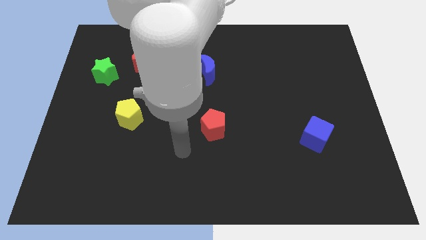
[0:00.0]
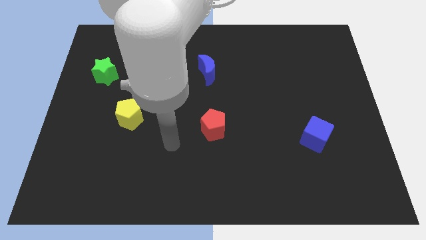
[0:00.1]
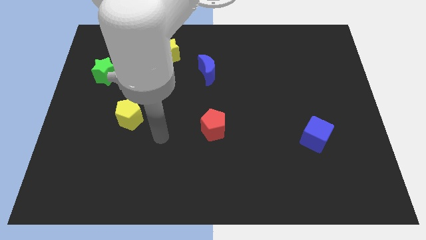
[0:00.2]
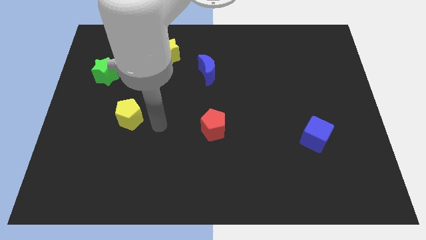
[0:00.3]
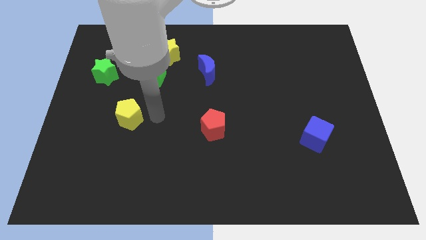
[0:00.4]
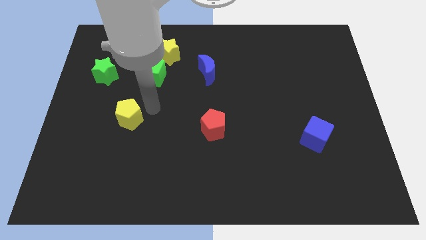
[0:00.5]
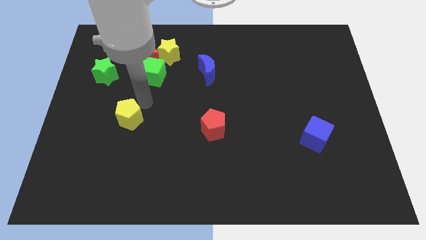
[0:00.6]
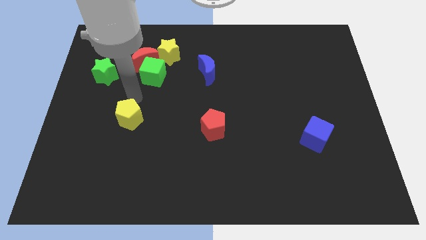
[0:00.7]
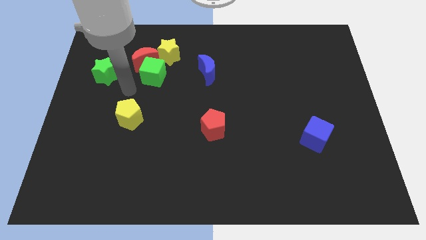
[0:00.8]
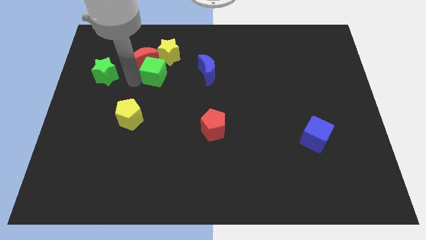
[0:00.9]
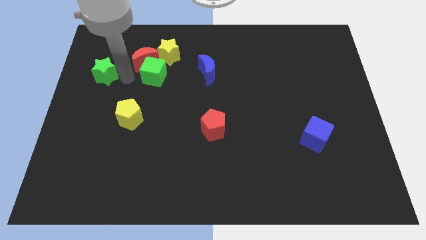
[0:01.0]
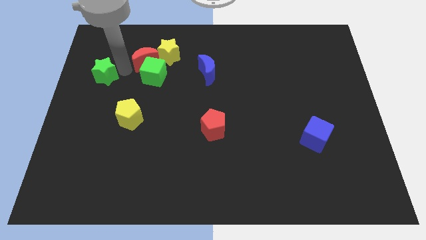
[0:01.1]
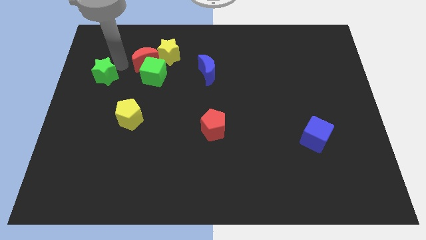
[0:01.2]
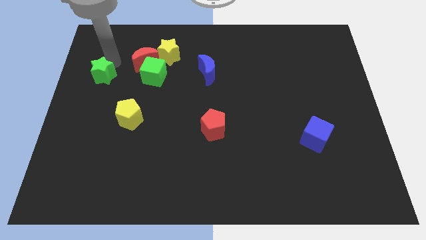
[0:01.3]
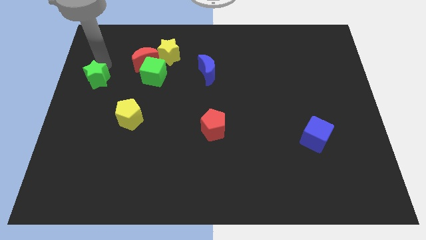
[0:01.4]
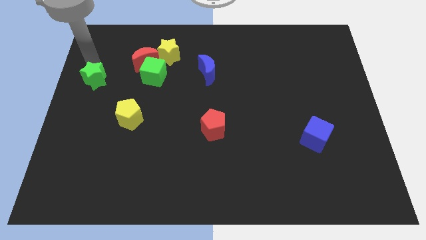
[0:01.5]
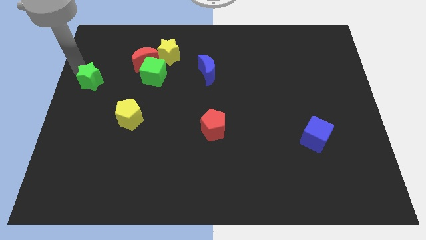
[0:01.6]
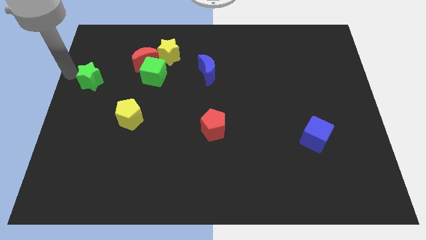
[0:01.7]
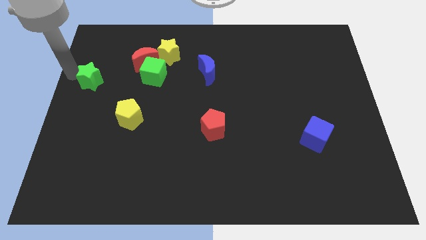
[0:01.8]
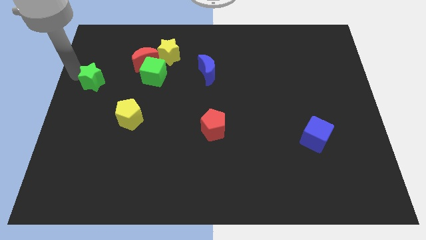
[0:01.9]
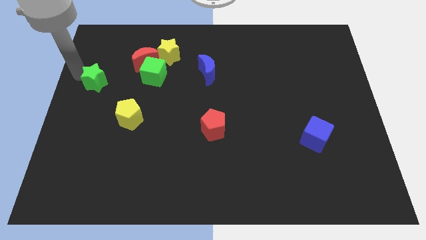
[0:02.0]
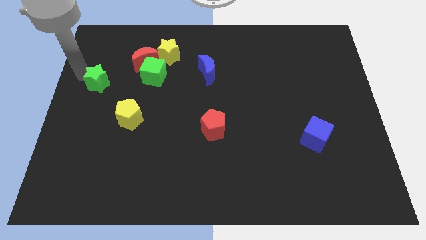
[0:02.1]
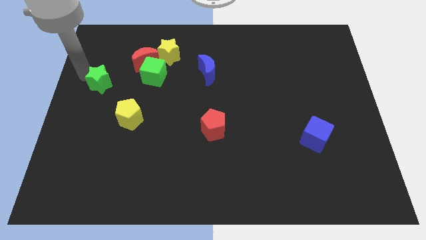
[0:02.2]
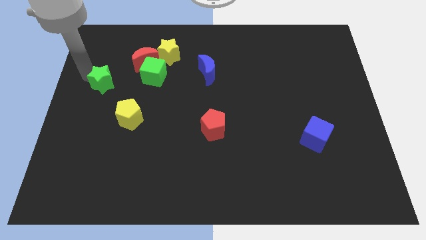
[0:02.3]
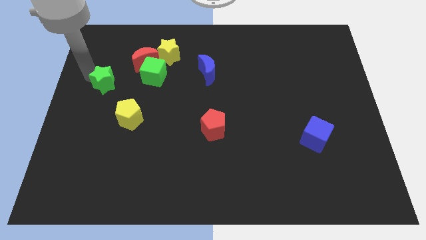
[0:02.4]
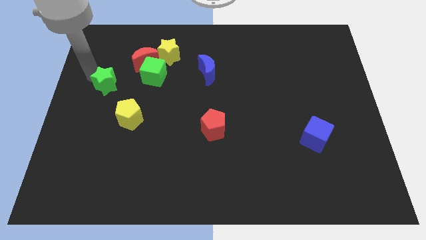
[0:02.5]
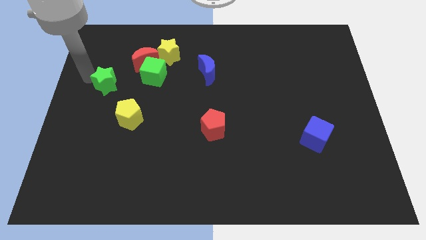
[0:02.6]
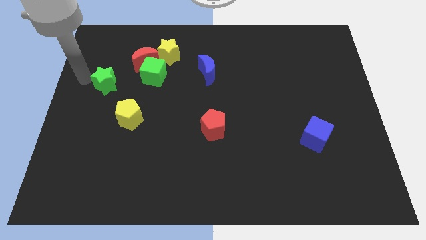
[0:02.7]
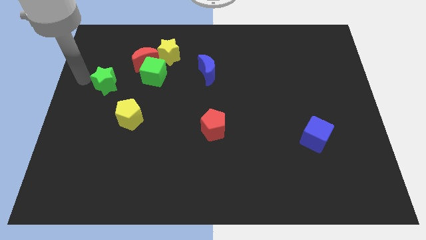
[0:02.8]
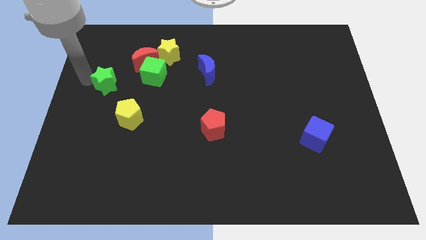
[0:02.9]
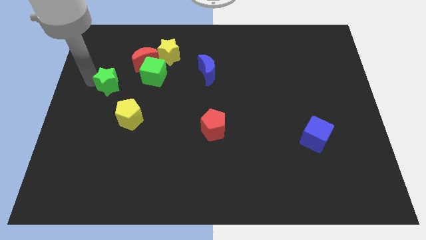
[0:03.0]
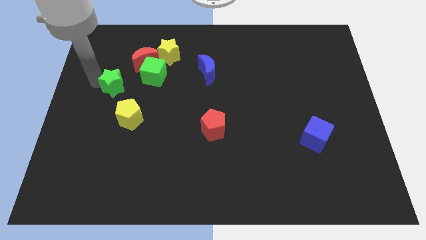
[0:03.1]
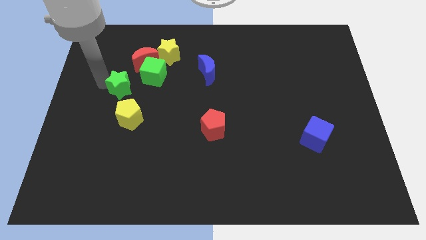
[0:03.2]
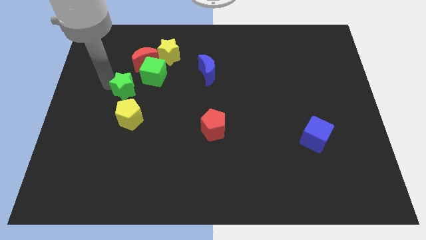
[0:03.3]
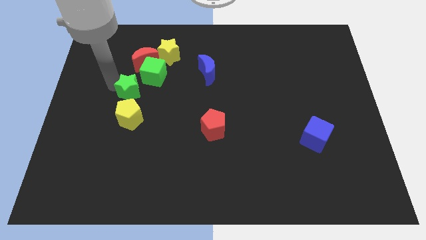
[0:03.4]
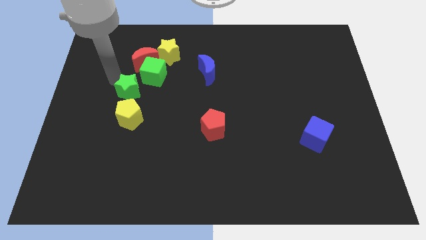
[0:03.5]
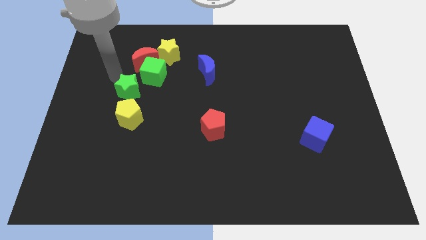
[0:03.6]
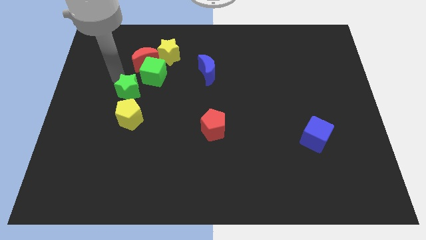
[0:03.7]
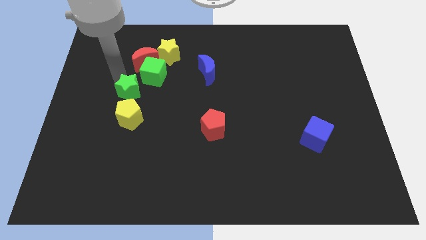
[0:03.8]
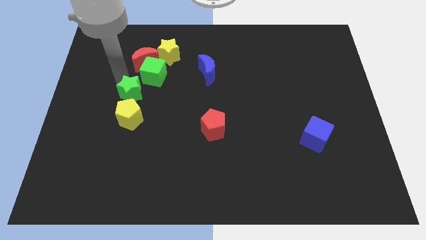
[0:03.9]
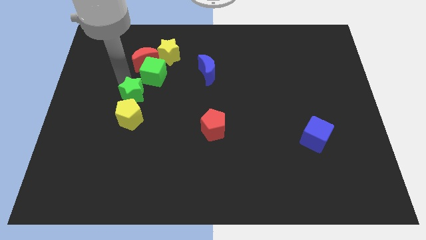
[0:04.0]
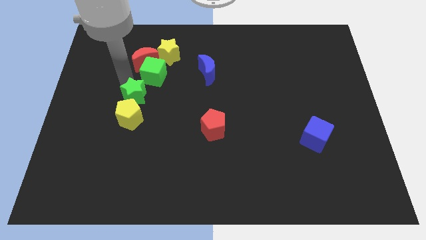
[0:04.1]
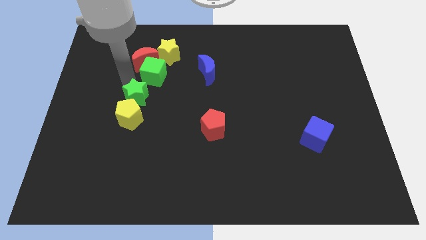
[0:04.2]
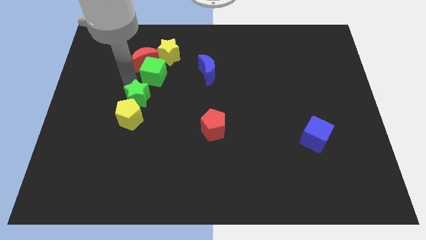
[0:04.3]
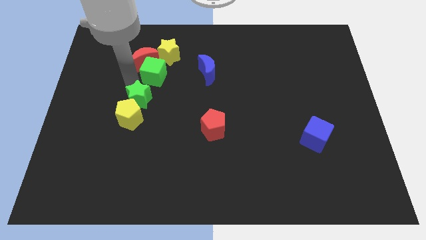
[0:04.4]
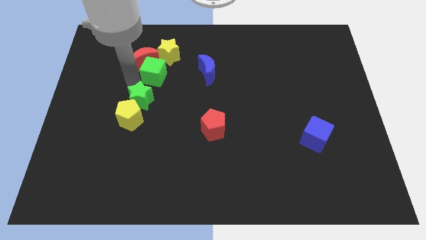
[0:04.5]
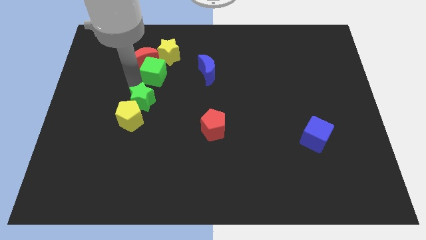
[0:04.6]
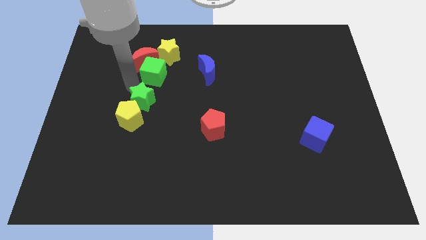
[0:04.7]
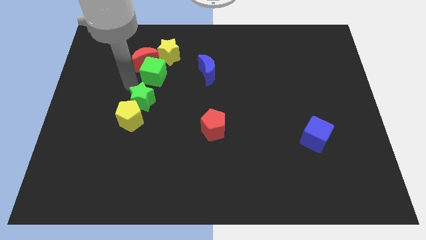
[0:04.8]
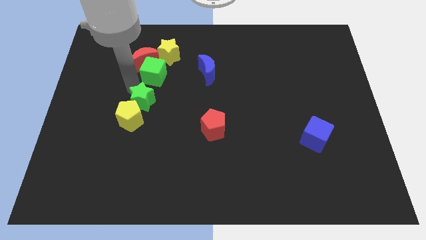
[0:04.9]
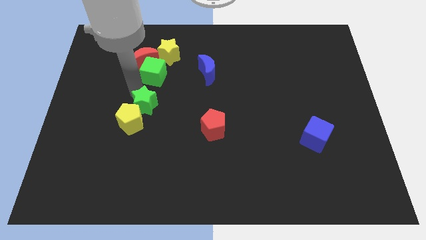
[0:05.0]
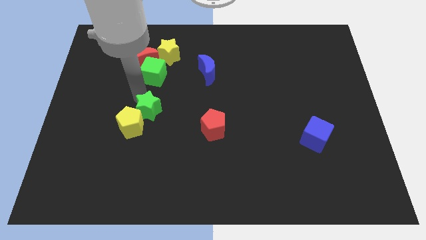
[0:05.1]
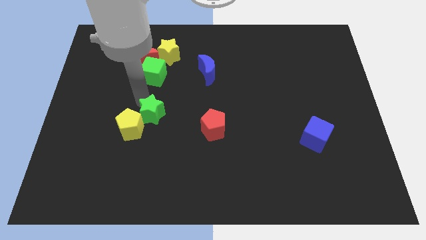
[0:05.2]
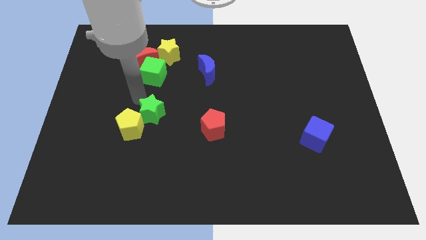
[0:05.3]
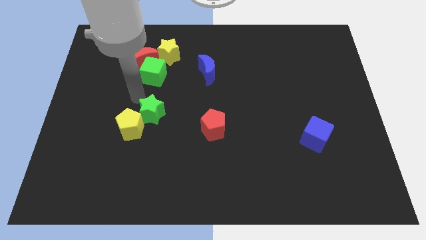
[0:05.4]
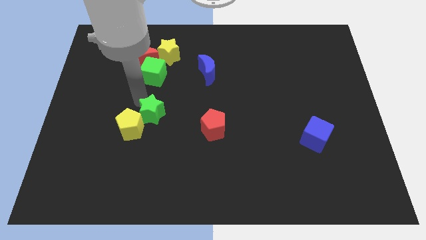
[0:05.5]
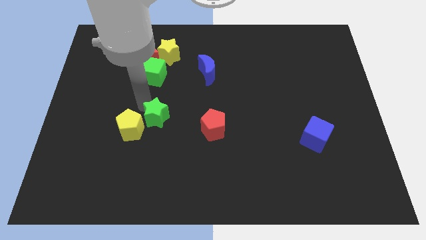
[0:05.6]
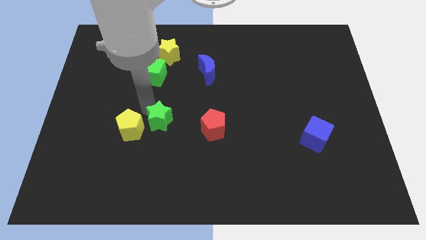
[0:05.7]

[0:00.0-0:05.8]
push the green star diagonally downwards and right

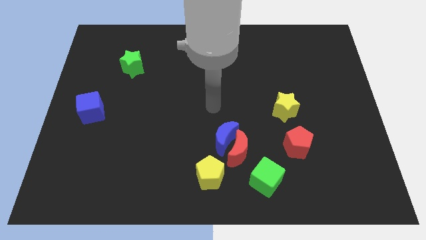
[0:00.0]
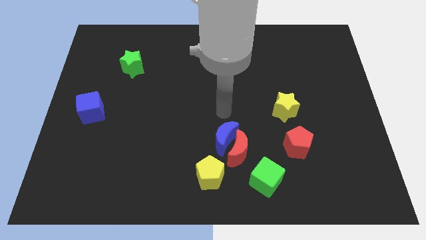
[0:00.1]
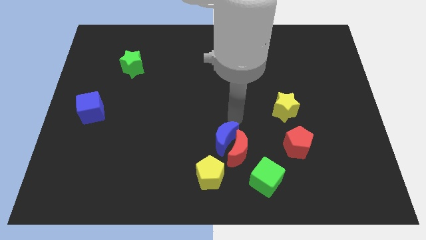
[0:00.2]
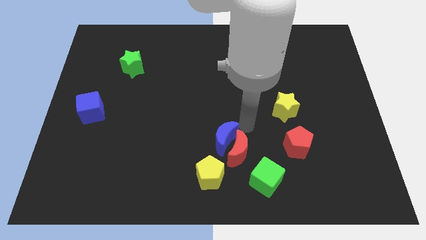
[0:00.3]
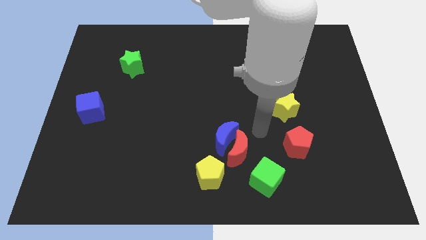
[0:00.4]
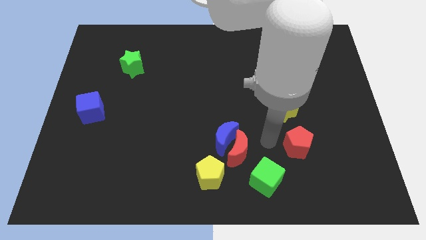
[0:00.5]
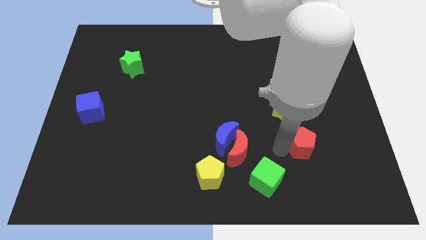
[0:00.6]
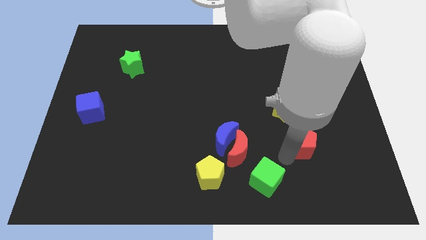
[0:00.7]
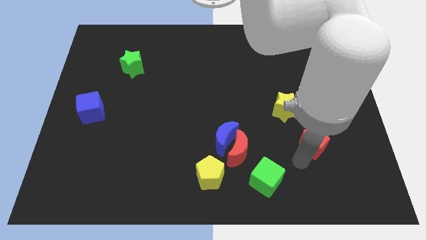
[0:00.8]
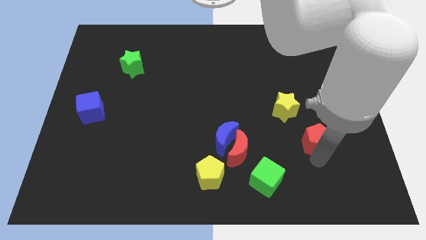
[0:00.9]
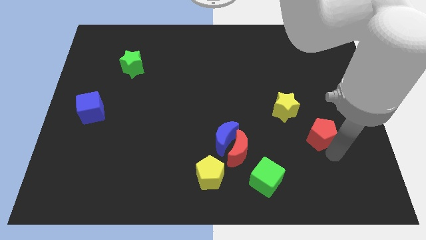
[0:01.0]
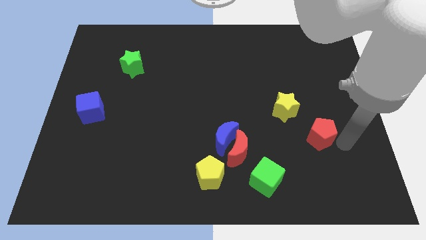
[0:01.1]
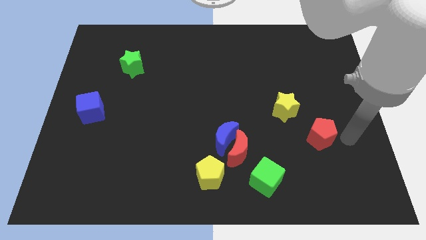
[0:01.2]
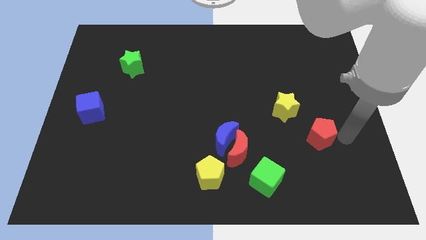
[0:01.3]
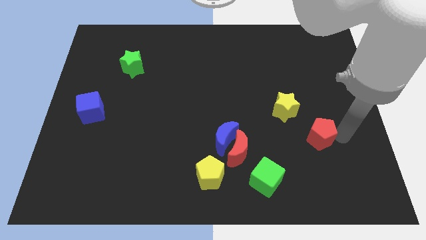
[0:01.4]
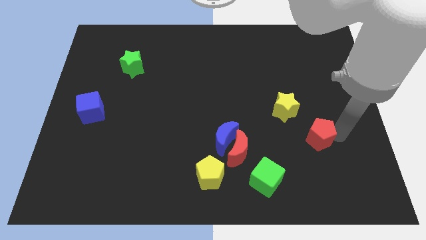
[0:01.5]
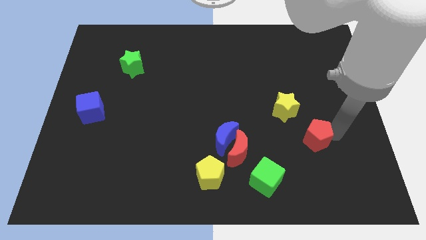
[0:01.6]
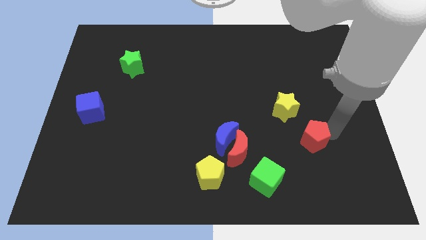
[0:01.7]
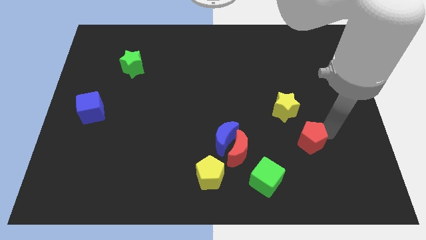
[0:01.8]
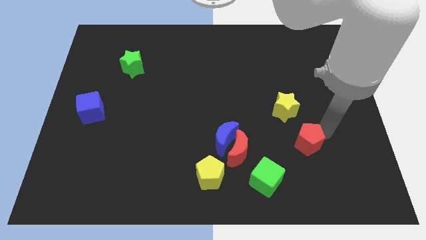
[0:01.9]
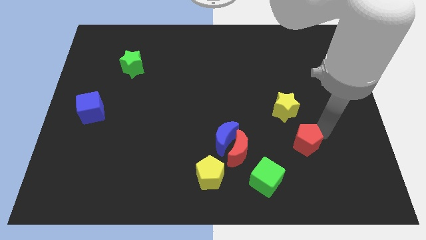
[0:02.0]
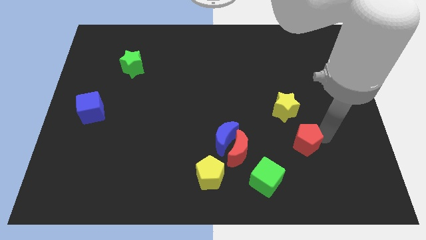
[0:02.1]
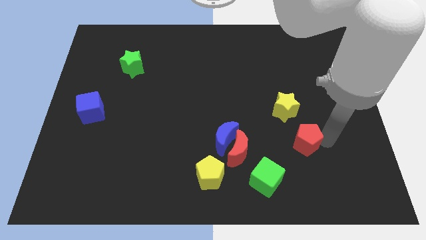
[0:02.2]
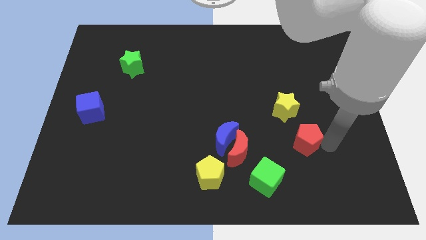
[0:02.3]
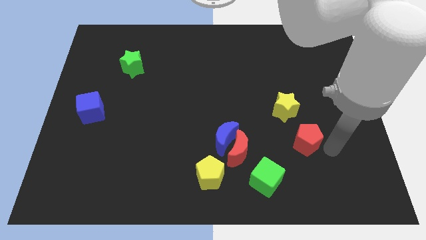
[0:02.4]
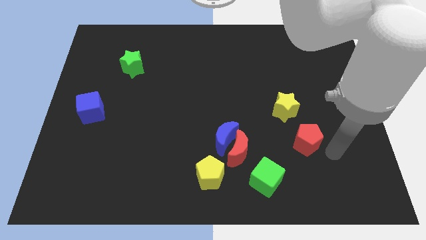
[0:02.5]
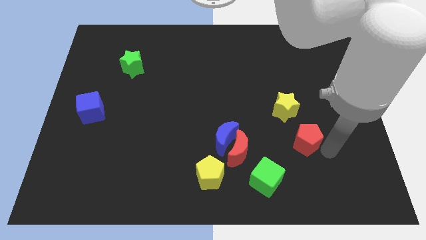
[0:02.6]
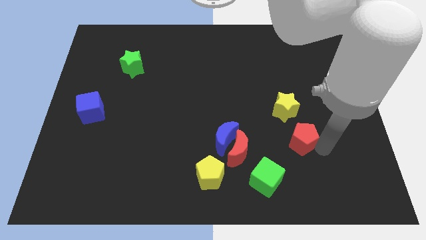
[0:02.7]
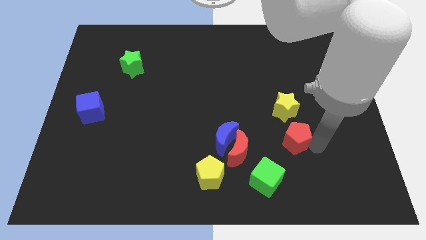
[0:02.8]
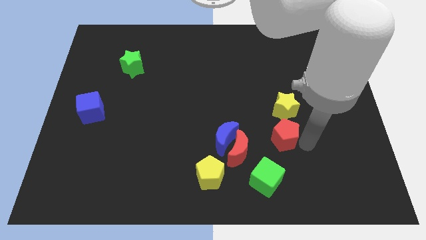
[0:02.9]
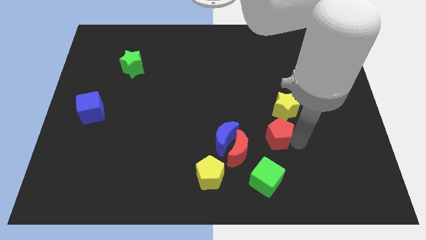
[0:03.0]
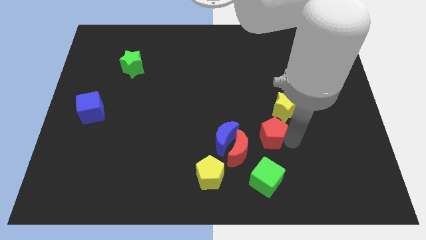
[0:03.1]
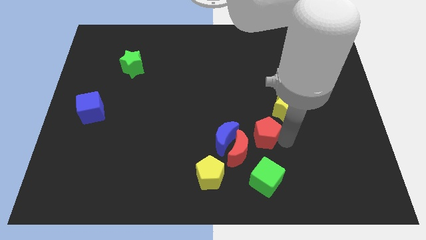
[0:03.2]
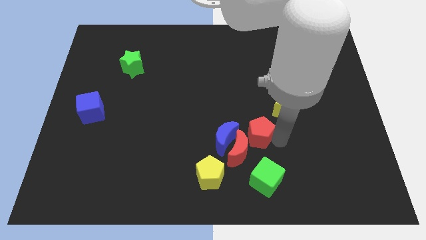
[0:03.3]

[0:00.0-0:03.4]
slightly push the red pentagon upwards and to the left
